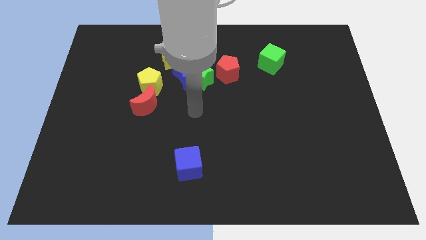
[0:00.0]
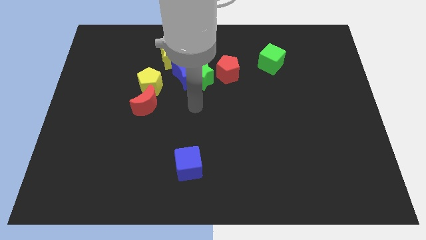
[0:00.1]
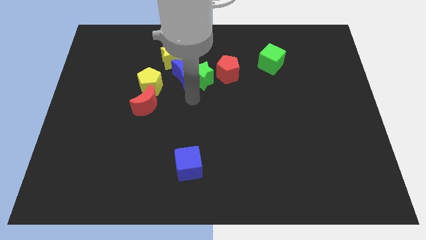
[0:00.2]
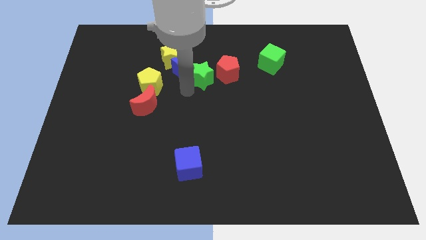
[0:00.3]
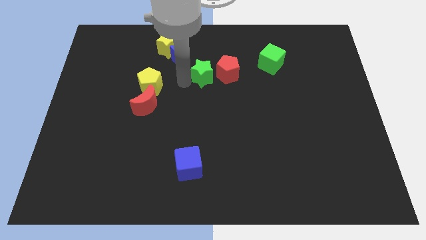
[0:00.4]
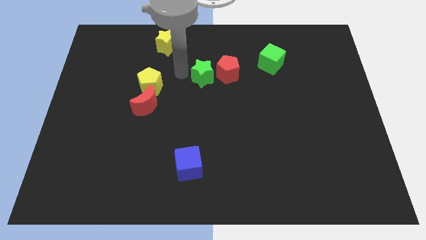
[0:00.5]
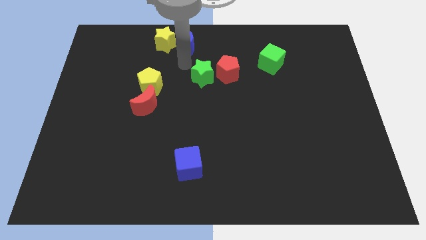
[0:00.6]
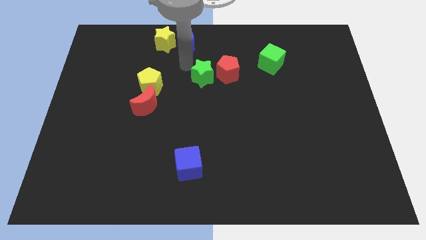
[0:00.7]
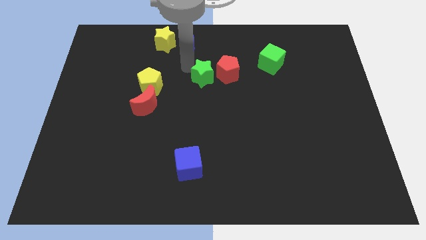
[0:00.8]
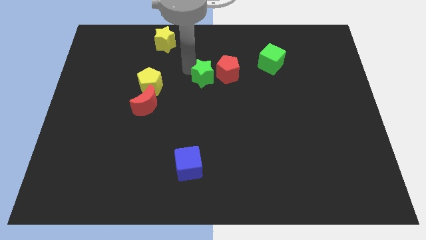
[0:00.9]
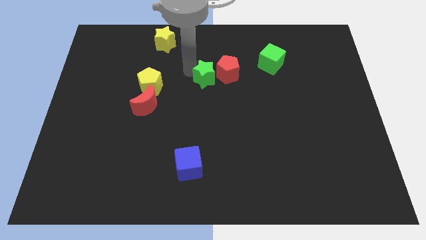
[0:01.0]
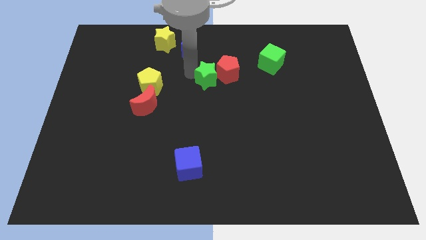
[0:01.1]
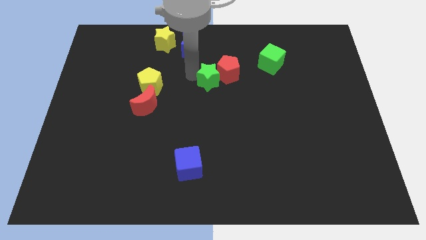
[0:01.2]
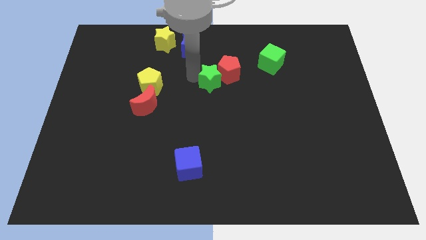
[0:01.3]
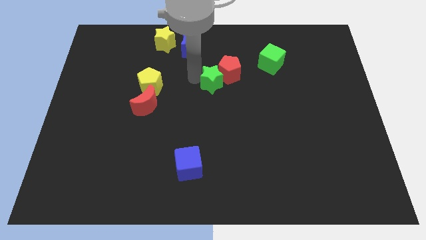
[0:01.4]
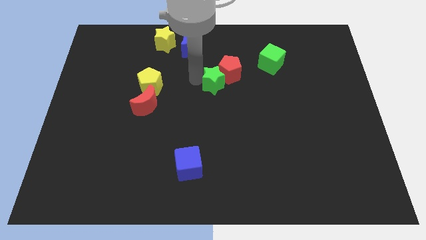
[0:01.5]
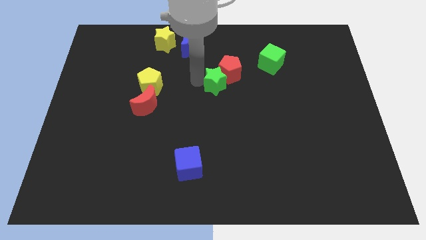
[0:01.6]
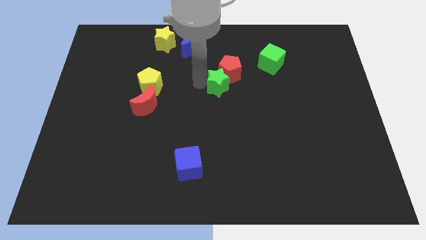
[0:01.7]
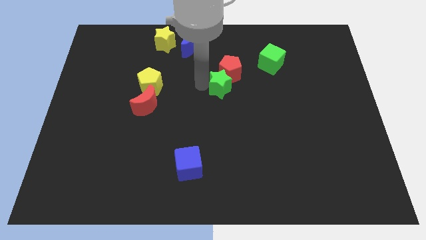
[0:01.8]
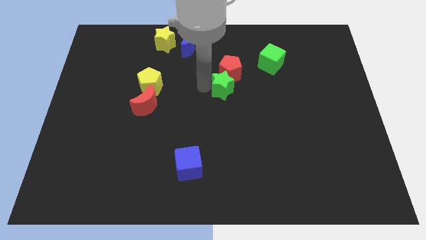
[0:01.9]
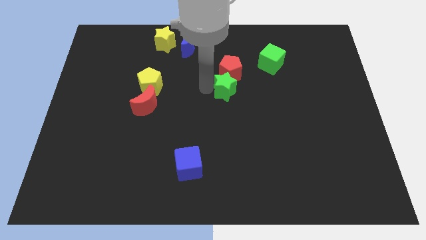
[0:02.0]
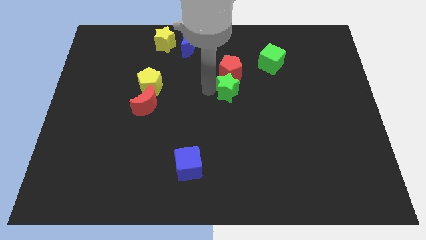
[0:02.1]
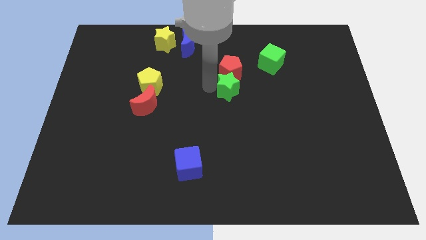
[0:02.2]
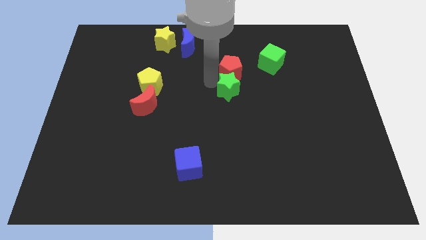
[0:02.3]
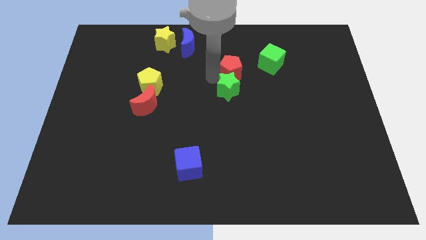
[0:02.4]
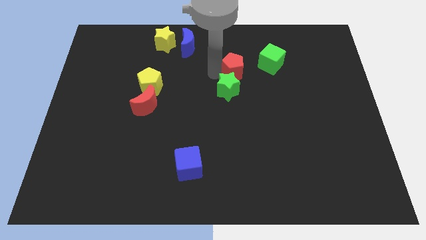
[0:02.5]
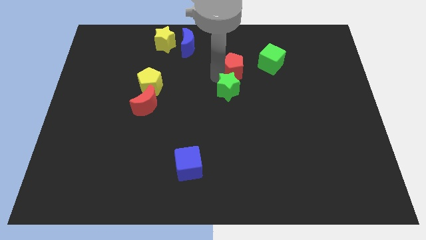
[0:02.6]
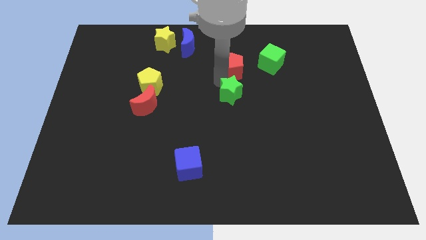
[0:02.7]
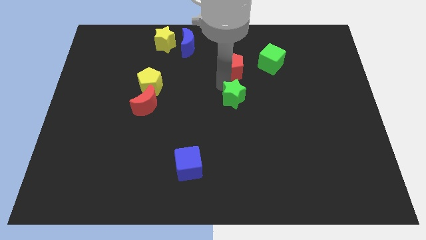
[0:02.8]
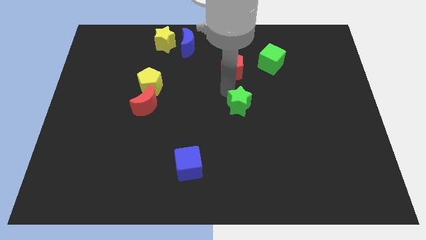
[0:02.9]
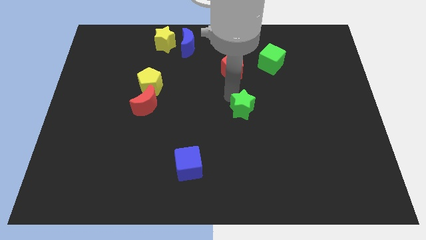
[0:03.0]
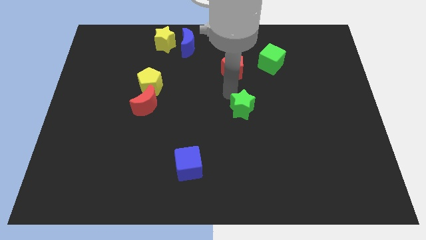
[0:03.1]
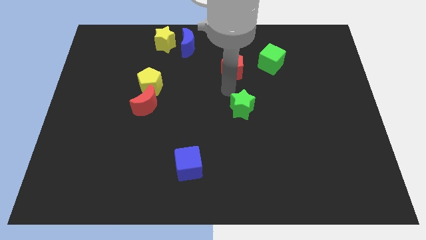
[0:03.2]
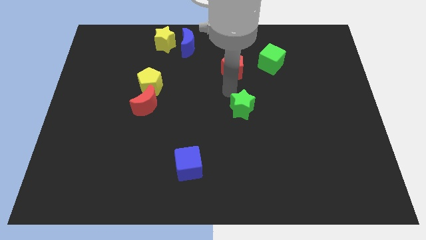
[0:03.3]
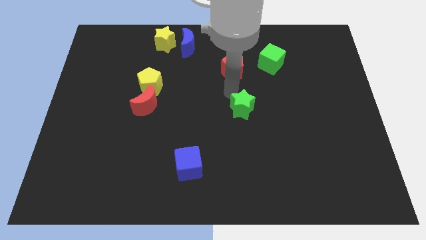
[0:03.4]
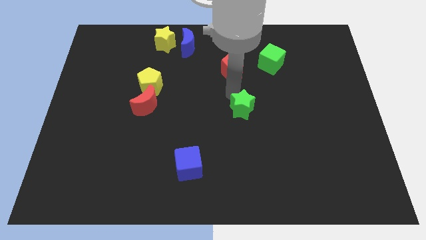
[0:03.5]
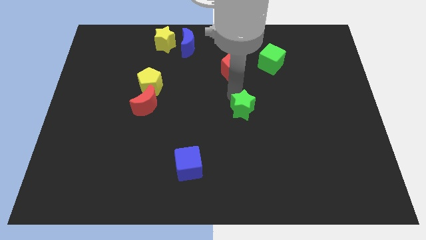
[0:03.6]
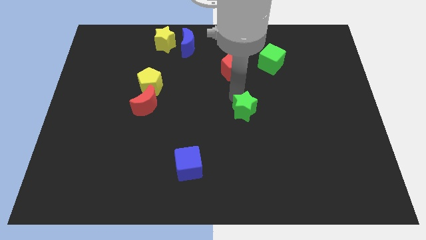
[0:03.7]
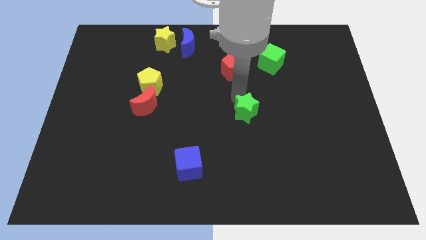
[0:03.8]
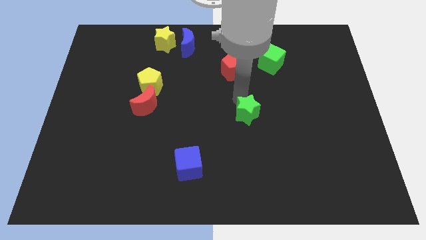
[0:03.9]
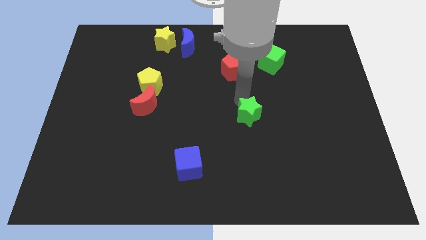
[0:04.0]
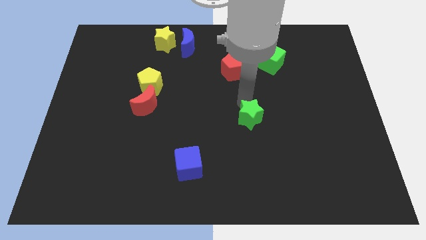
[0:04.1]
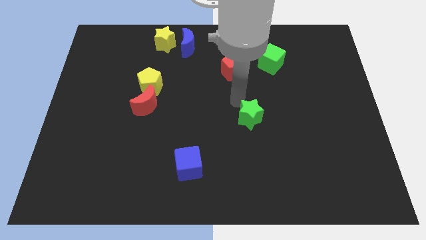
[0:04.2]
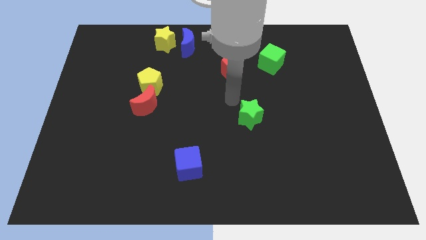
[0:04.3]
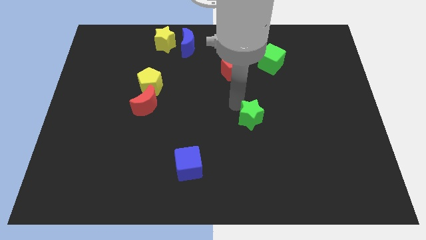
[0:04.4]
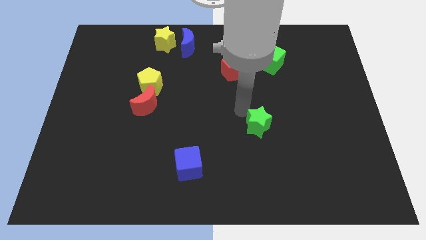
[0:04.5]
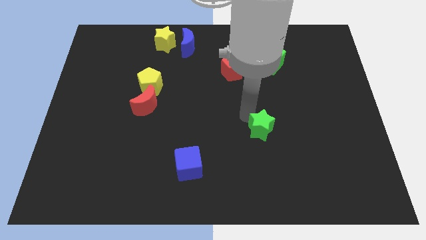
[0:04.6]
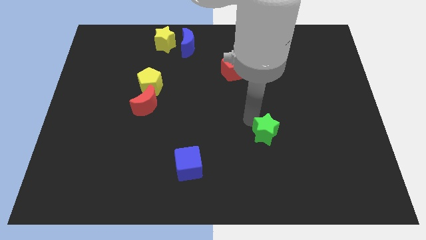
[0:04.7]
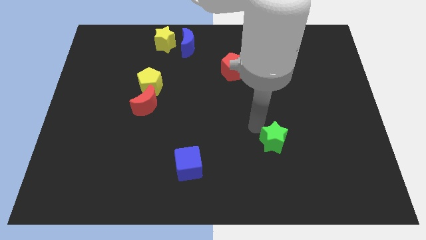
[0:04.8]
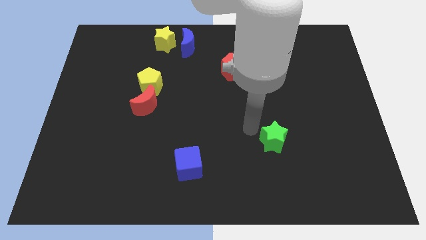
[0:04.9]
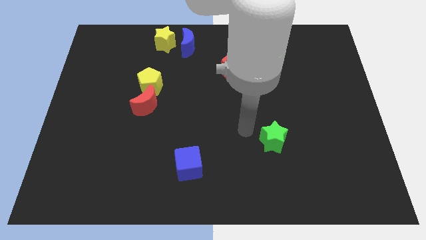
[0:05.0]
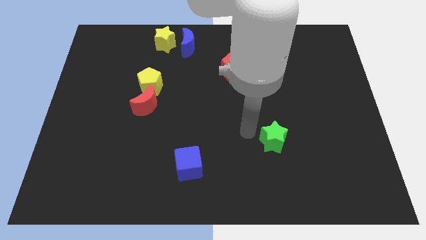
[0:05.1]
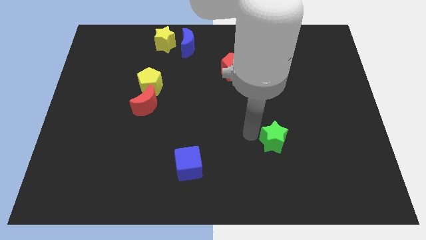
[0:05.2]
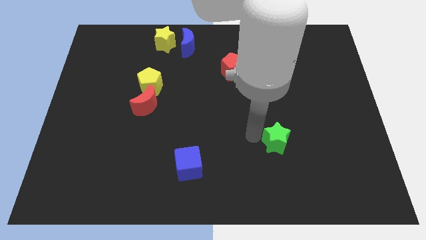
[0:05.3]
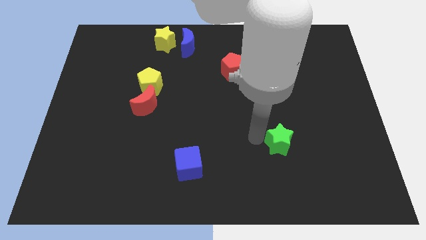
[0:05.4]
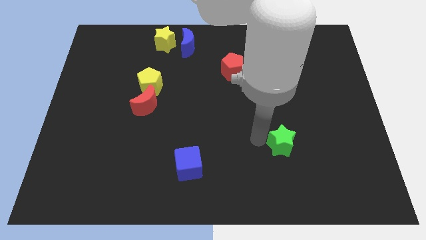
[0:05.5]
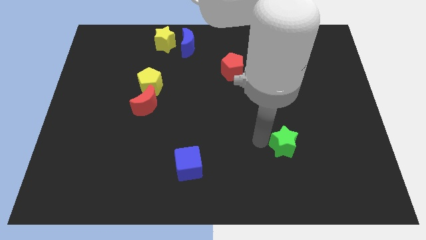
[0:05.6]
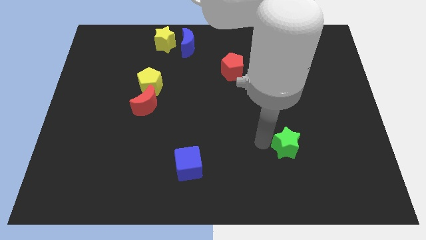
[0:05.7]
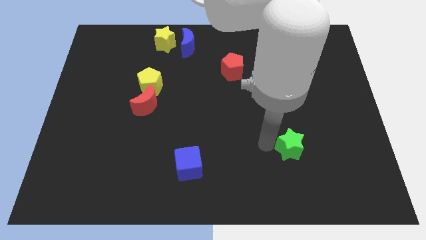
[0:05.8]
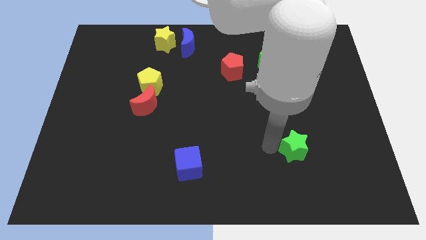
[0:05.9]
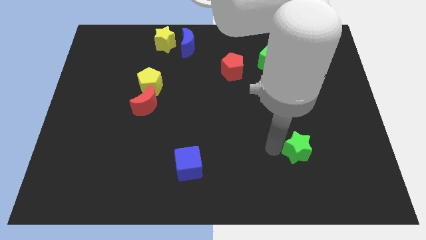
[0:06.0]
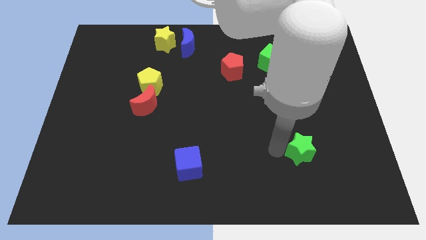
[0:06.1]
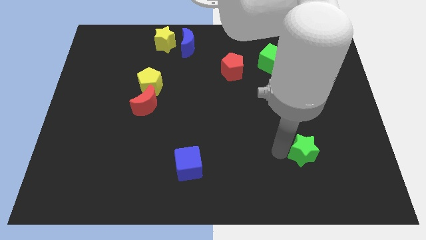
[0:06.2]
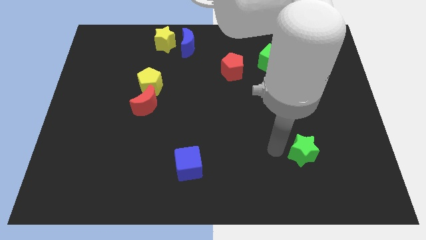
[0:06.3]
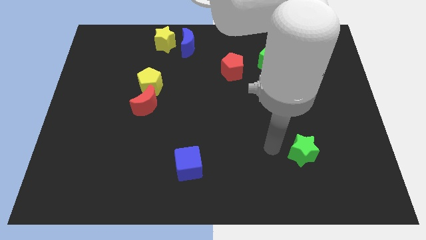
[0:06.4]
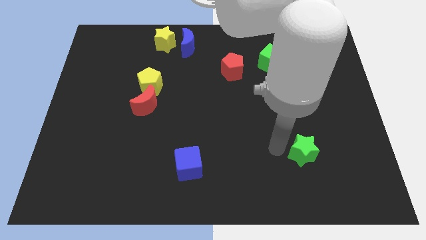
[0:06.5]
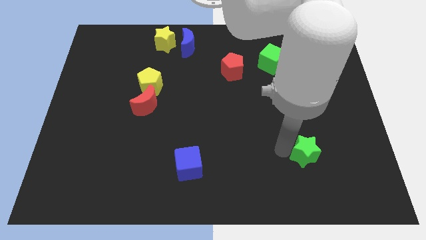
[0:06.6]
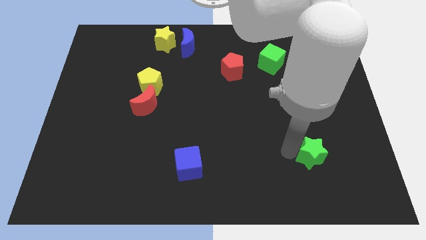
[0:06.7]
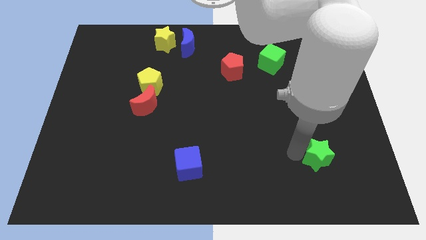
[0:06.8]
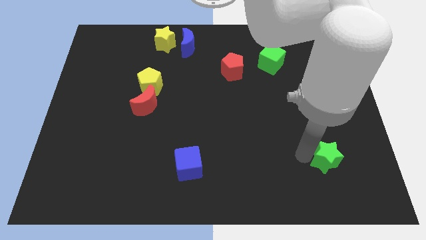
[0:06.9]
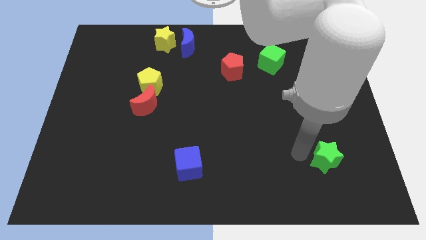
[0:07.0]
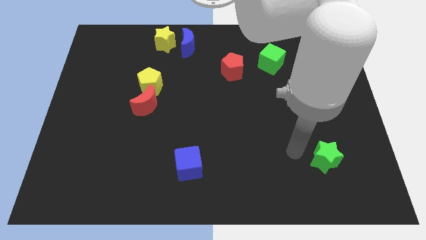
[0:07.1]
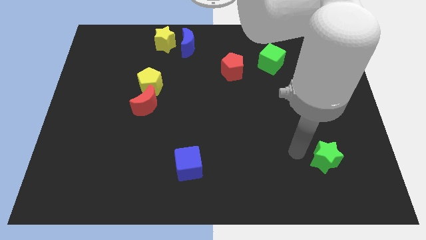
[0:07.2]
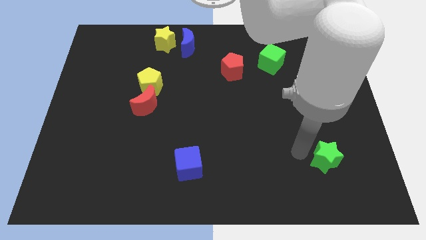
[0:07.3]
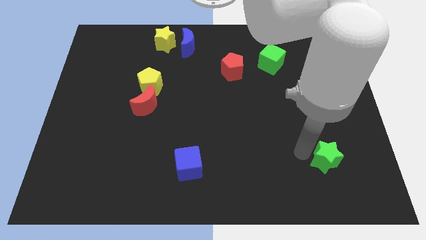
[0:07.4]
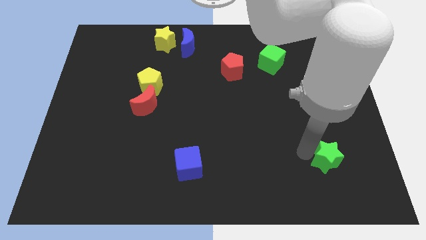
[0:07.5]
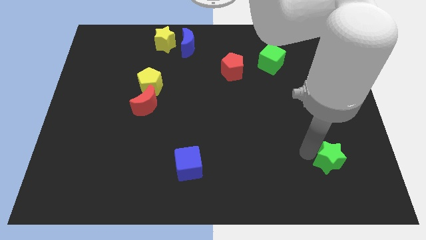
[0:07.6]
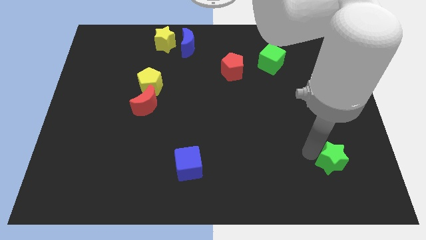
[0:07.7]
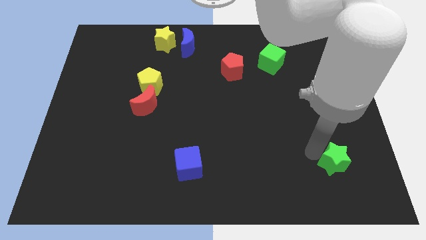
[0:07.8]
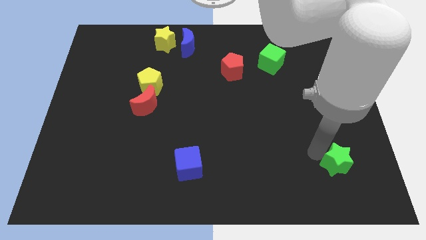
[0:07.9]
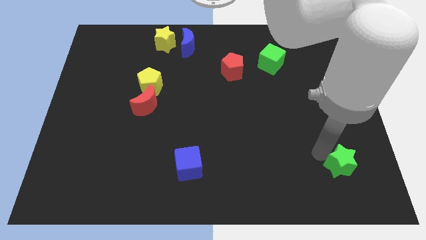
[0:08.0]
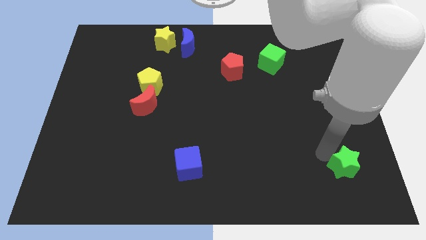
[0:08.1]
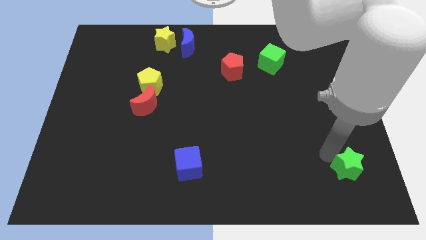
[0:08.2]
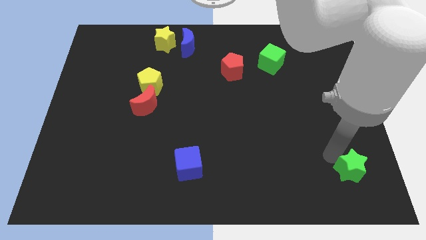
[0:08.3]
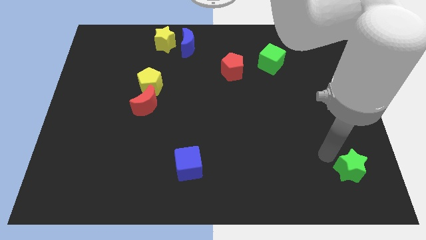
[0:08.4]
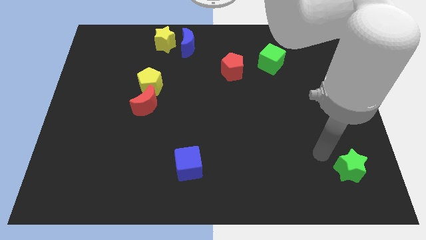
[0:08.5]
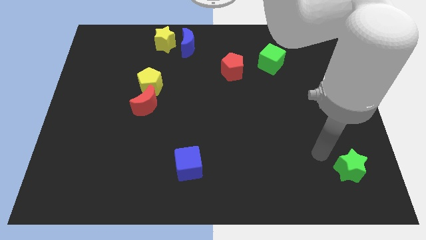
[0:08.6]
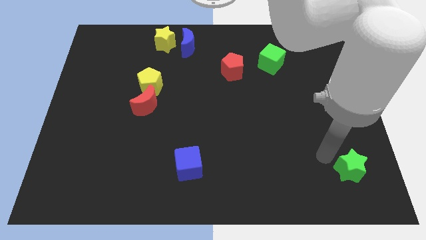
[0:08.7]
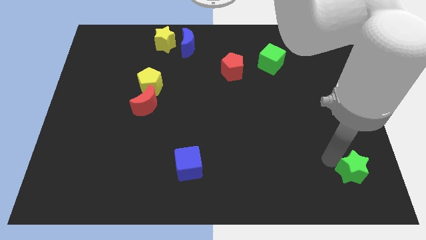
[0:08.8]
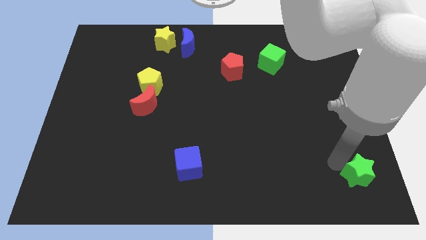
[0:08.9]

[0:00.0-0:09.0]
push the green star to the lower right corner
